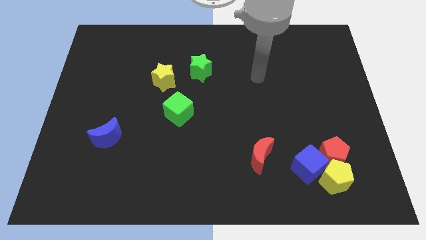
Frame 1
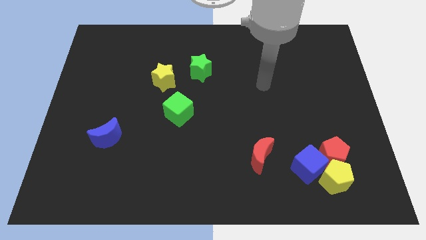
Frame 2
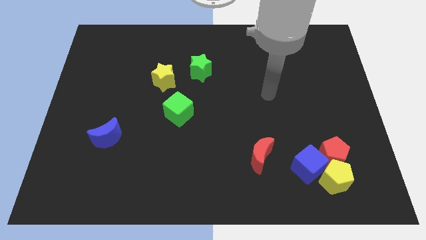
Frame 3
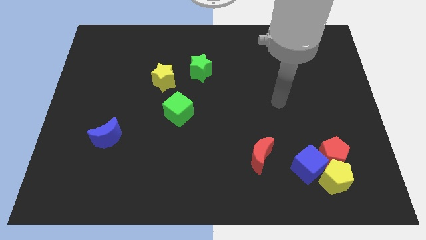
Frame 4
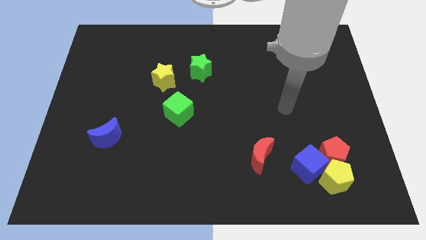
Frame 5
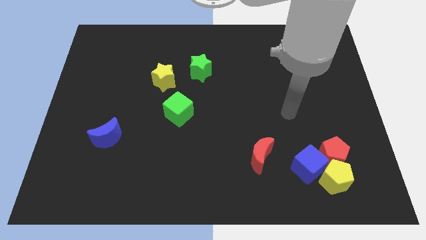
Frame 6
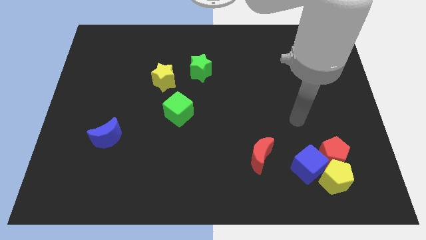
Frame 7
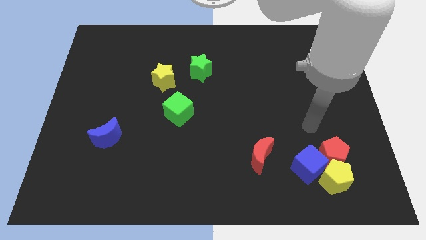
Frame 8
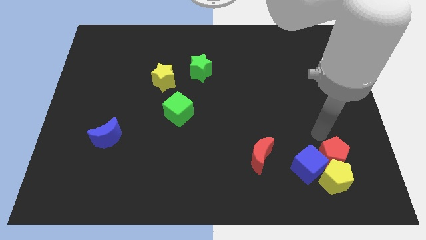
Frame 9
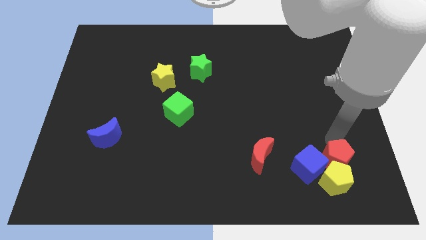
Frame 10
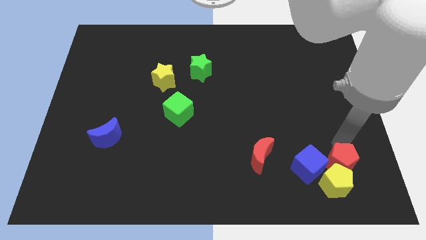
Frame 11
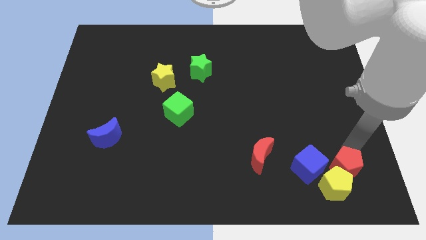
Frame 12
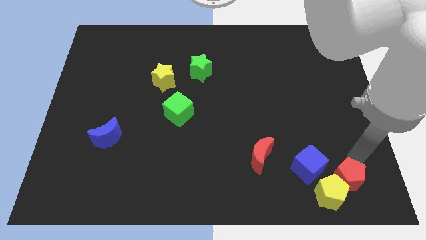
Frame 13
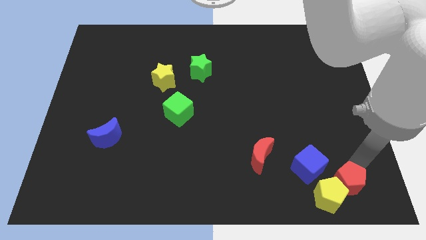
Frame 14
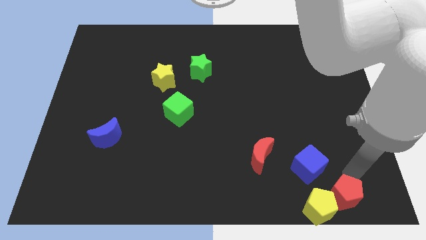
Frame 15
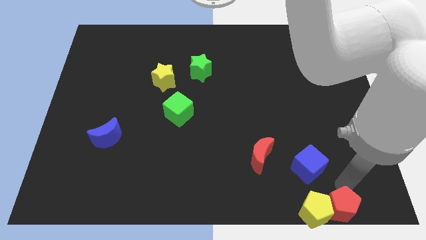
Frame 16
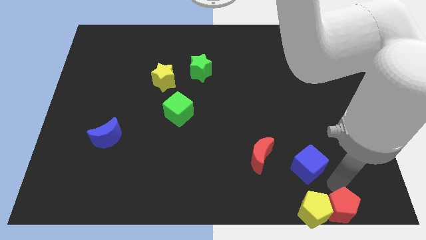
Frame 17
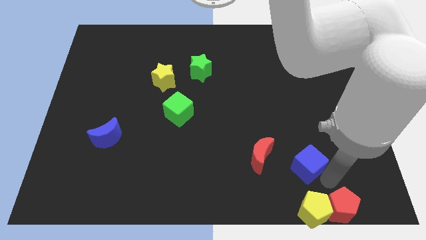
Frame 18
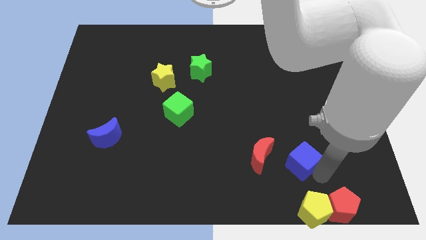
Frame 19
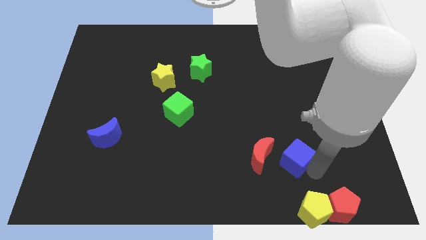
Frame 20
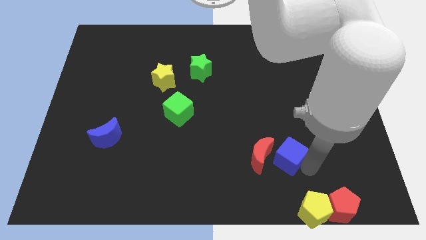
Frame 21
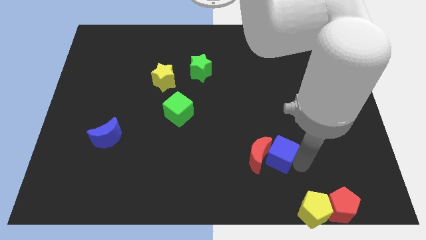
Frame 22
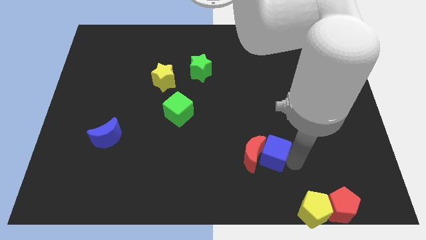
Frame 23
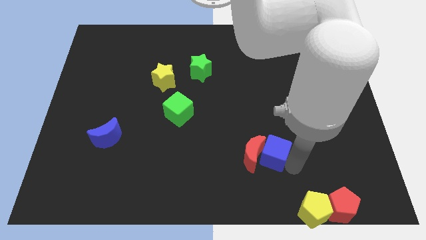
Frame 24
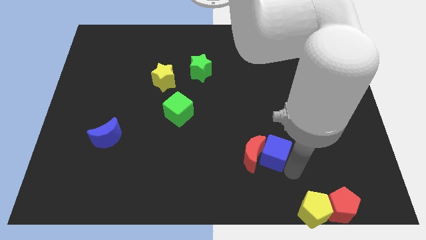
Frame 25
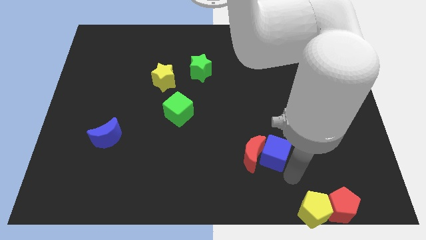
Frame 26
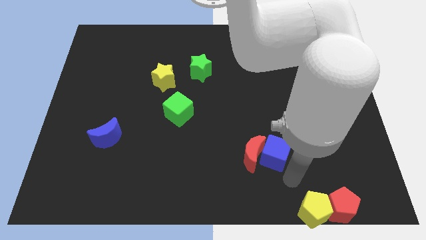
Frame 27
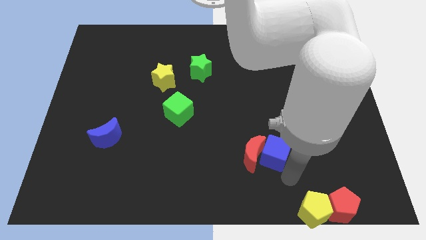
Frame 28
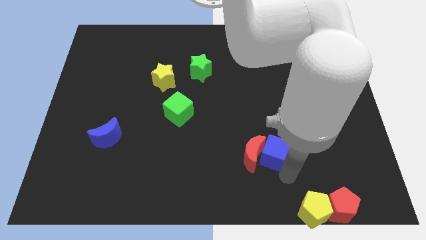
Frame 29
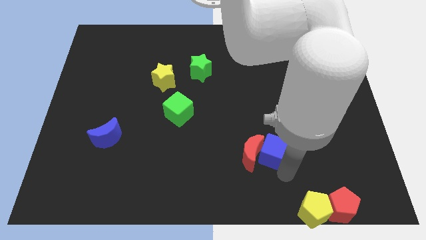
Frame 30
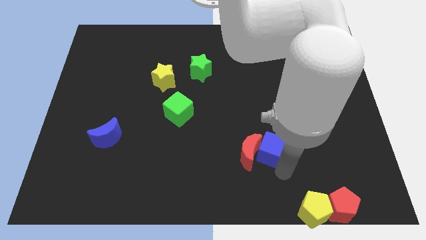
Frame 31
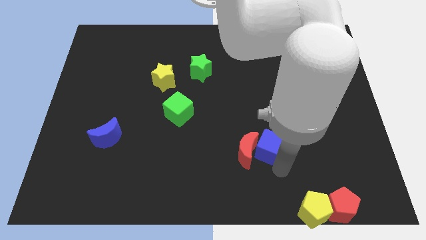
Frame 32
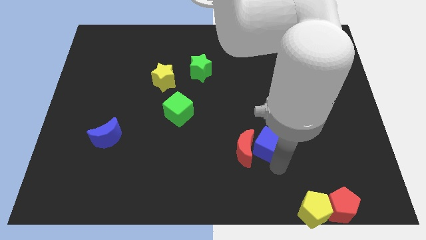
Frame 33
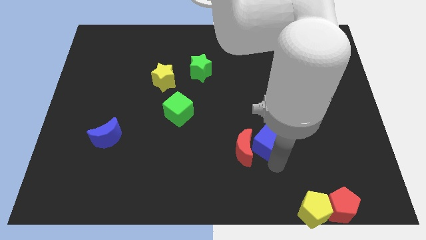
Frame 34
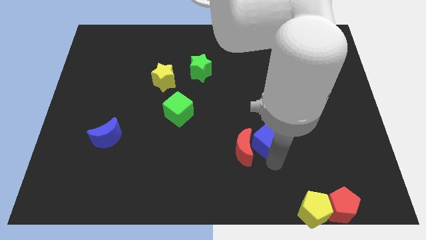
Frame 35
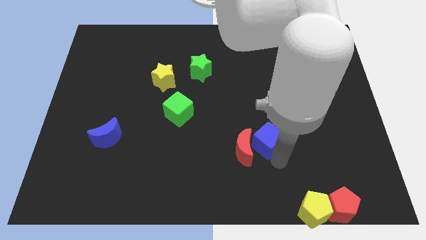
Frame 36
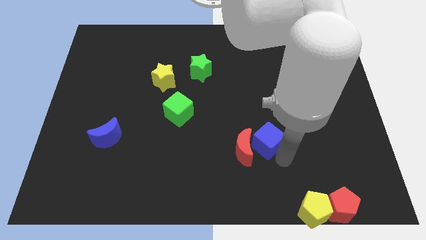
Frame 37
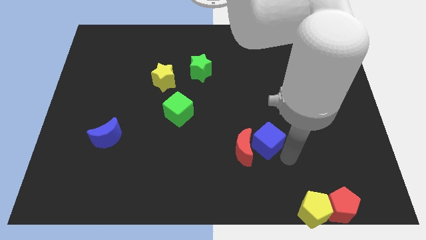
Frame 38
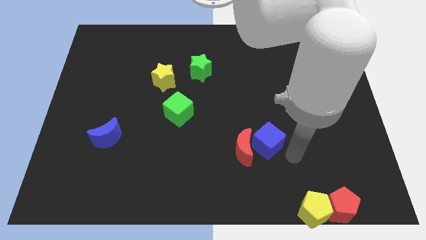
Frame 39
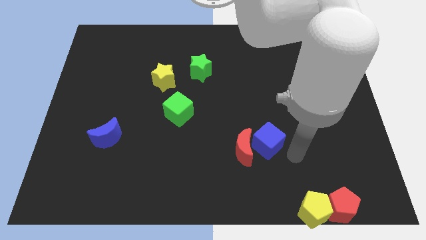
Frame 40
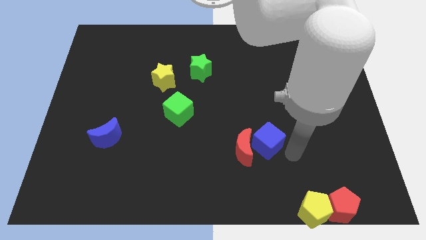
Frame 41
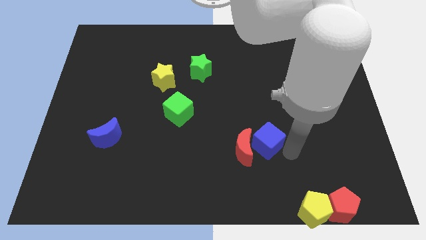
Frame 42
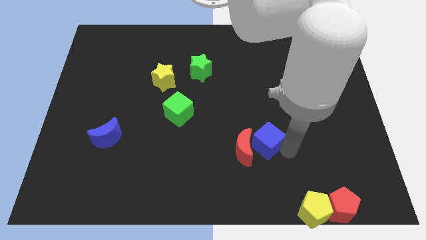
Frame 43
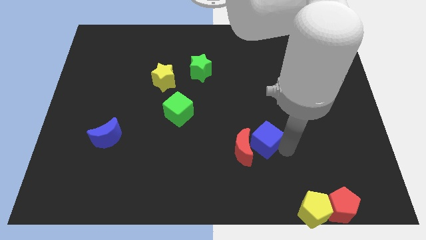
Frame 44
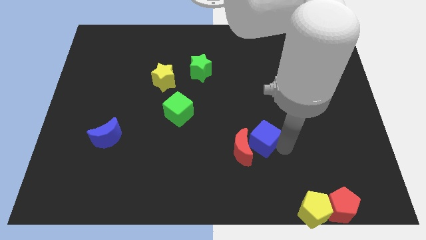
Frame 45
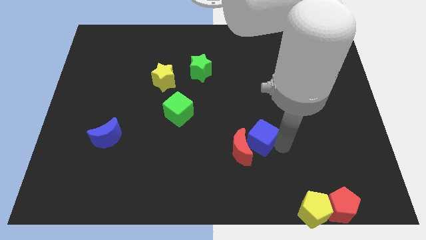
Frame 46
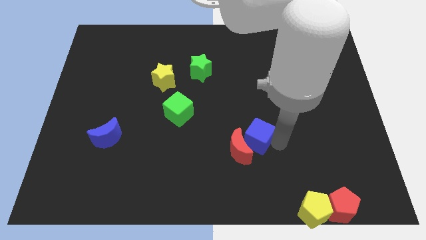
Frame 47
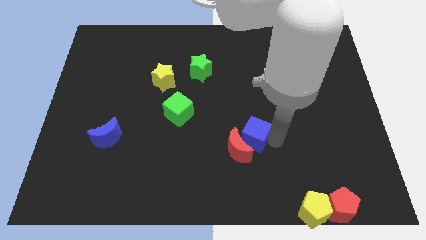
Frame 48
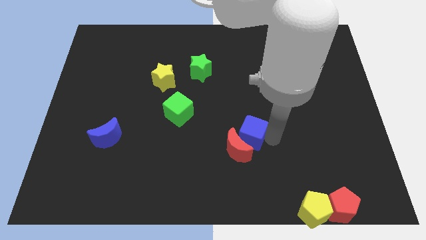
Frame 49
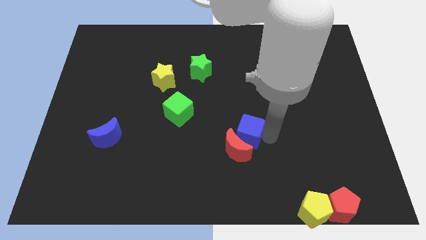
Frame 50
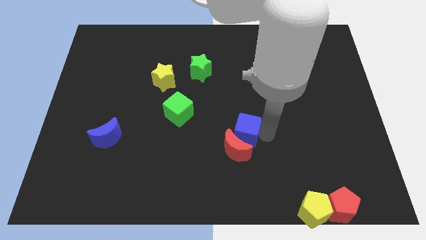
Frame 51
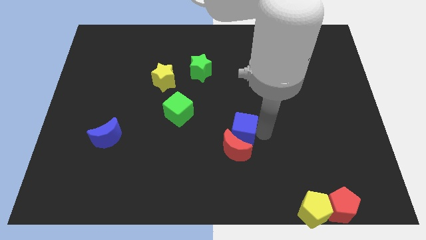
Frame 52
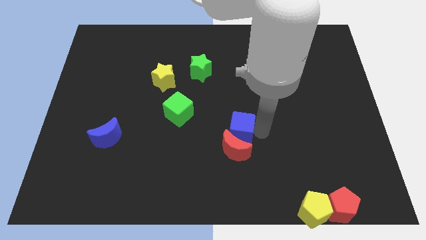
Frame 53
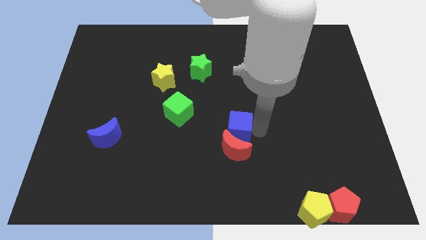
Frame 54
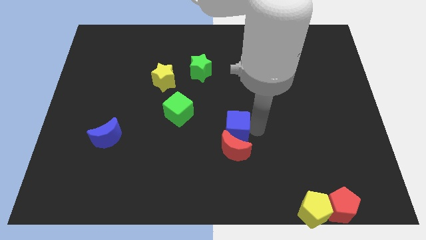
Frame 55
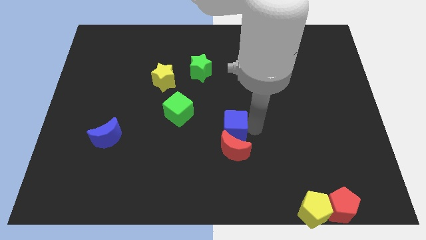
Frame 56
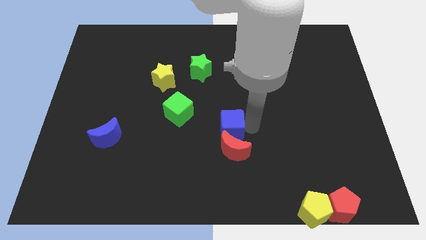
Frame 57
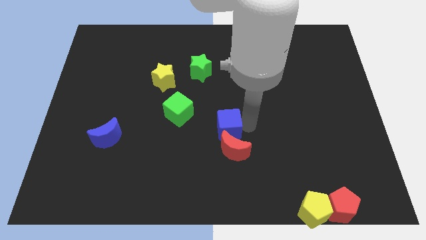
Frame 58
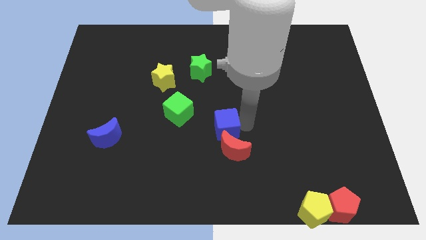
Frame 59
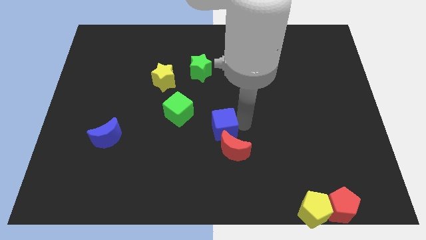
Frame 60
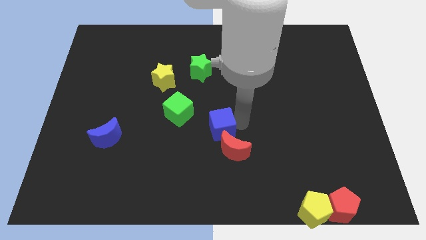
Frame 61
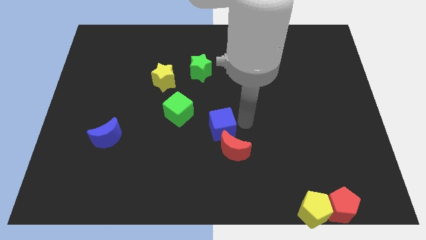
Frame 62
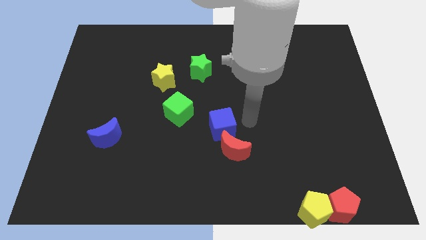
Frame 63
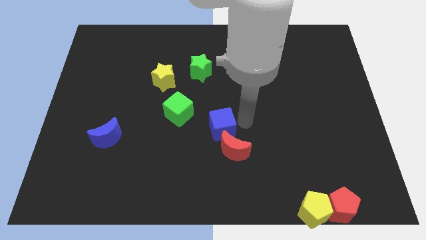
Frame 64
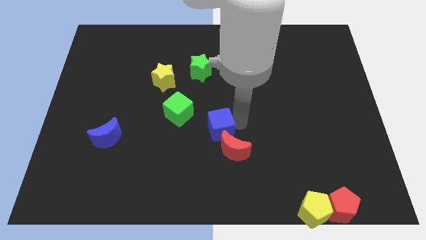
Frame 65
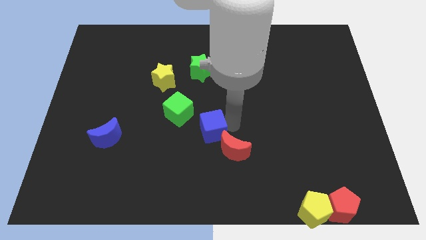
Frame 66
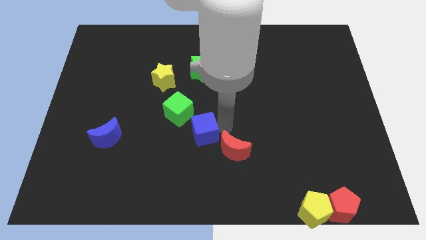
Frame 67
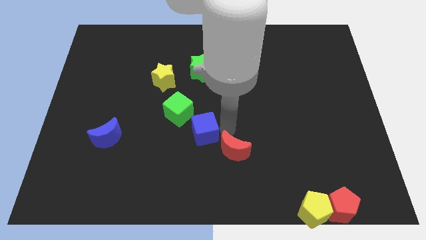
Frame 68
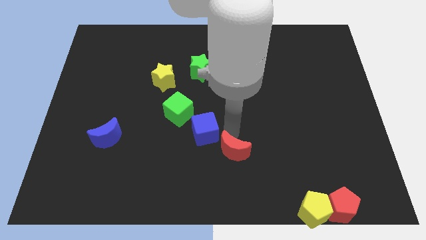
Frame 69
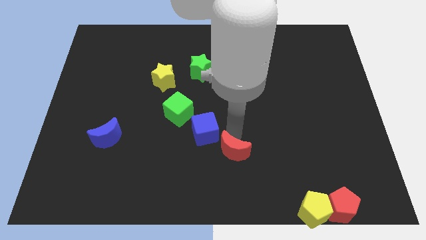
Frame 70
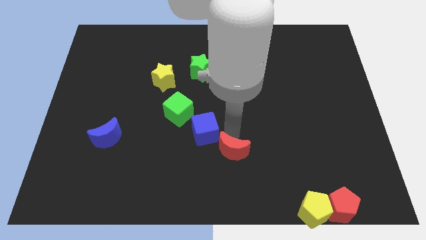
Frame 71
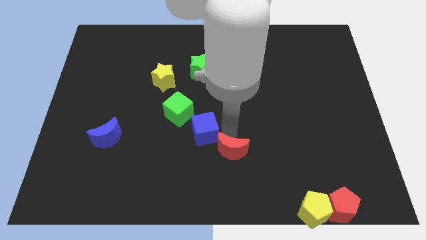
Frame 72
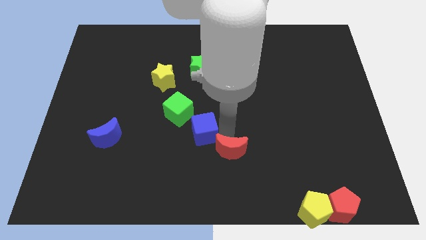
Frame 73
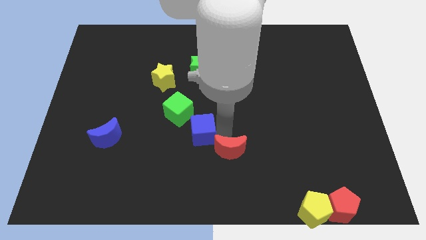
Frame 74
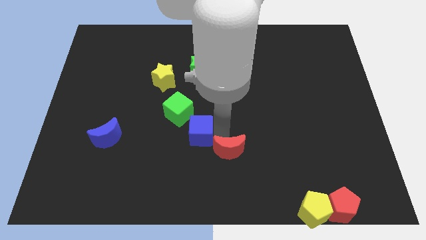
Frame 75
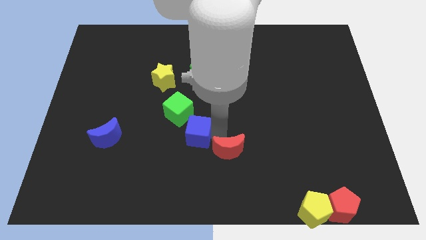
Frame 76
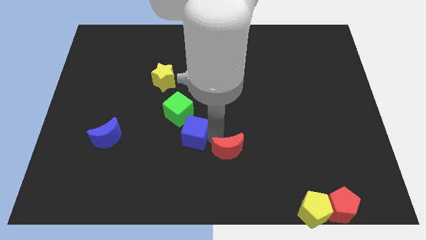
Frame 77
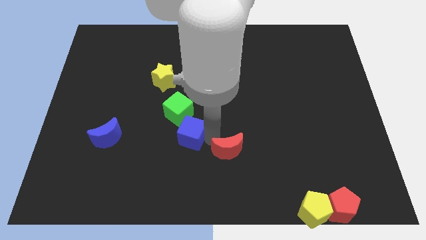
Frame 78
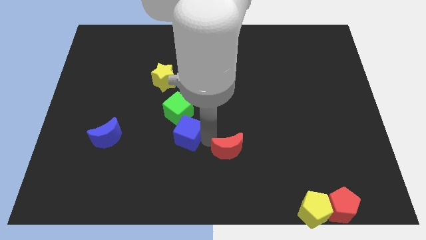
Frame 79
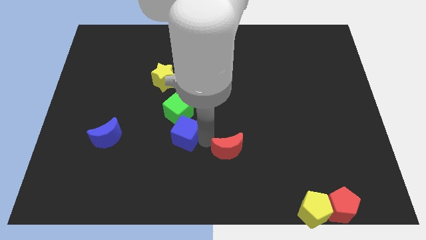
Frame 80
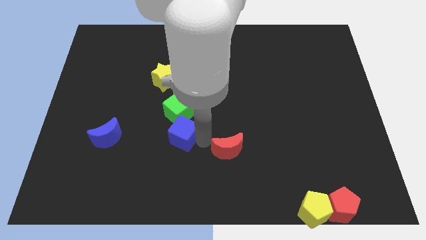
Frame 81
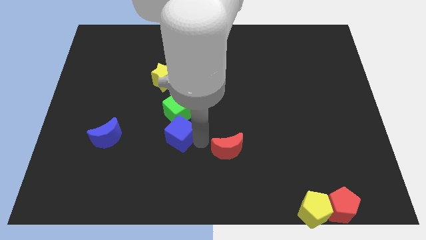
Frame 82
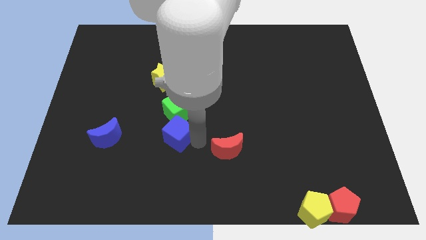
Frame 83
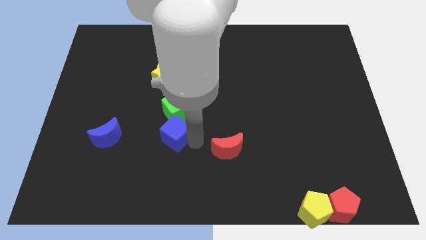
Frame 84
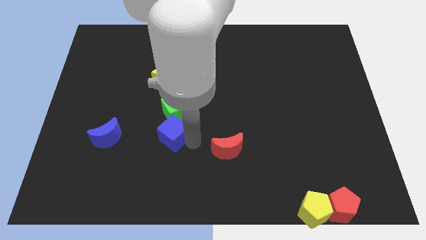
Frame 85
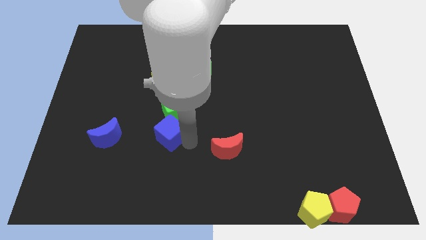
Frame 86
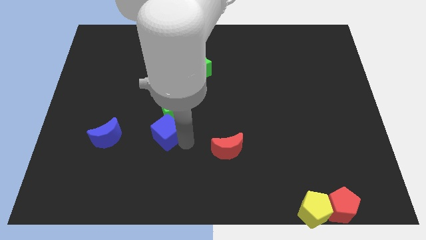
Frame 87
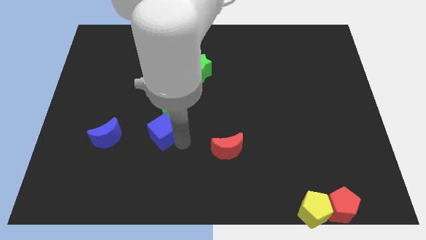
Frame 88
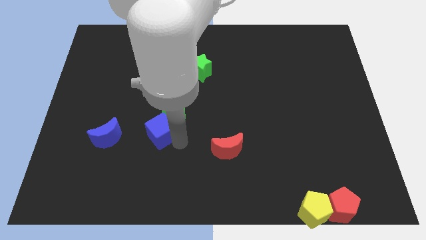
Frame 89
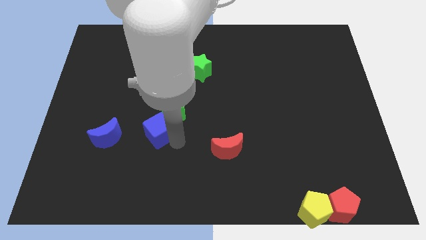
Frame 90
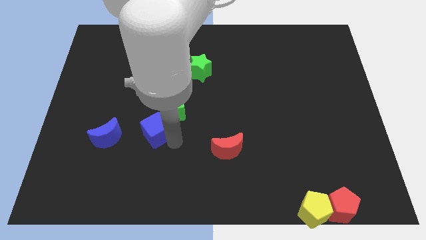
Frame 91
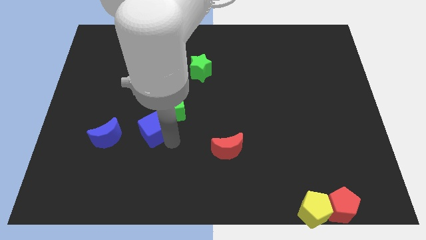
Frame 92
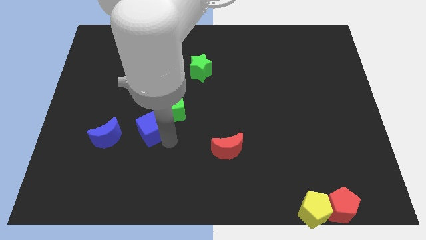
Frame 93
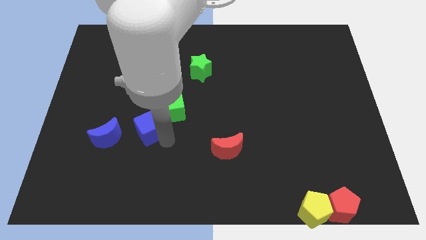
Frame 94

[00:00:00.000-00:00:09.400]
push the blue cube to the top right of the blue moon
